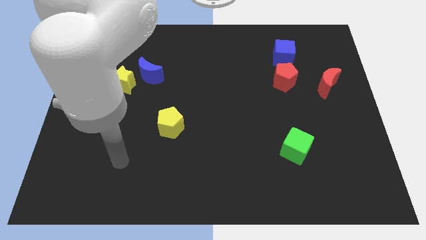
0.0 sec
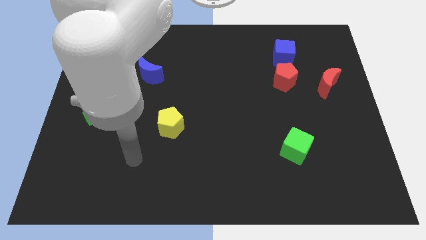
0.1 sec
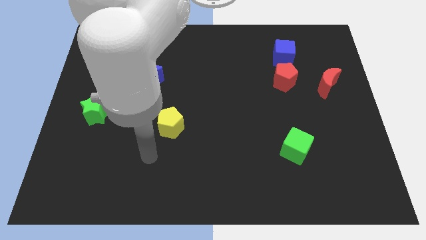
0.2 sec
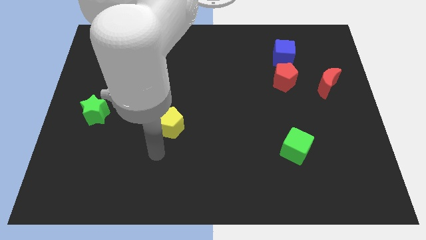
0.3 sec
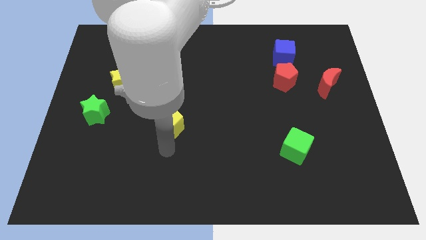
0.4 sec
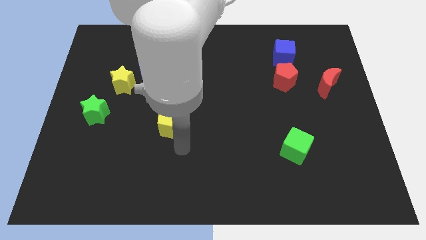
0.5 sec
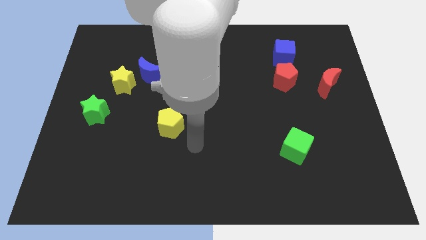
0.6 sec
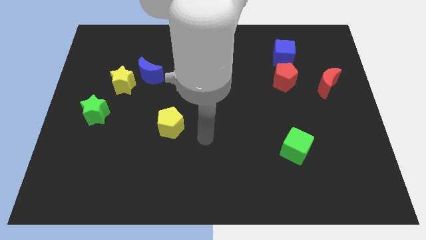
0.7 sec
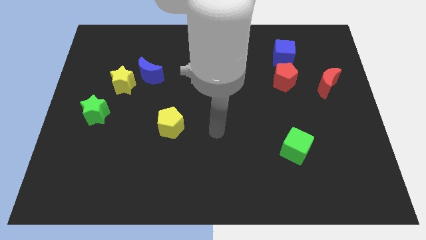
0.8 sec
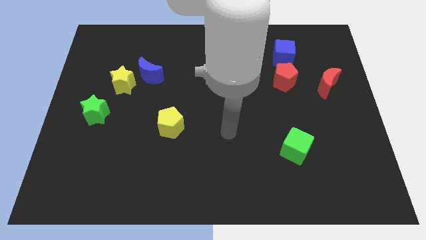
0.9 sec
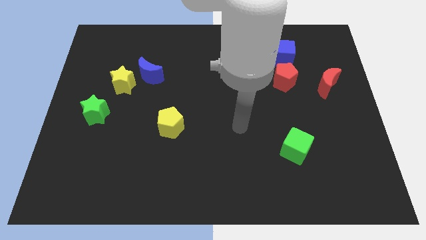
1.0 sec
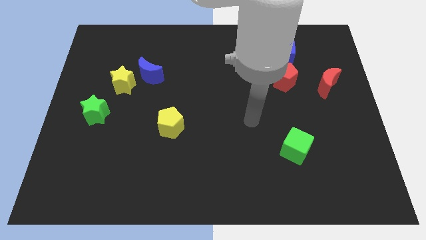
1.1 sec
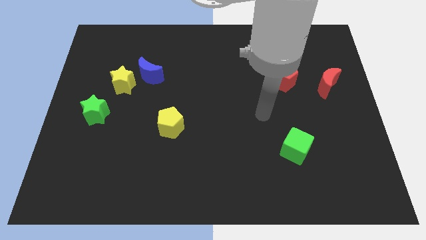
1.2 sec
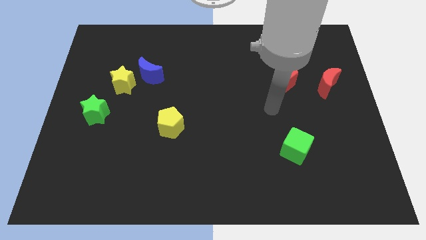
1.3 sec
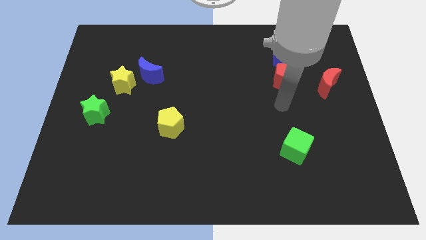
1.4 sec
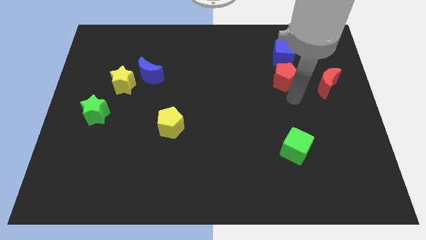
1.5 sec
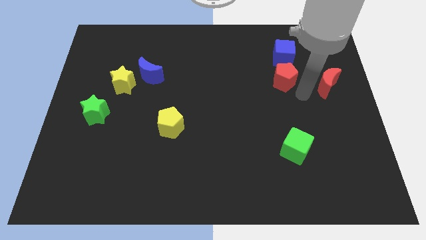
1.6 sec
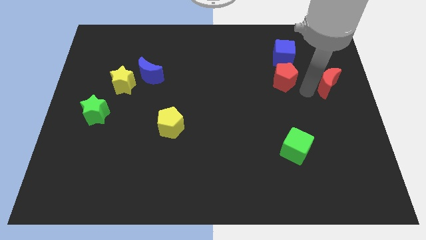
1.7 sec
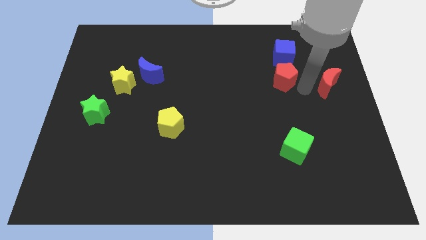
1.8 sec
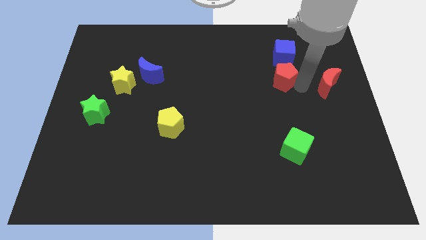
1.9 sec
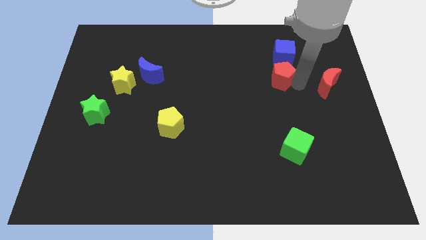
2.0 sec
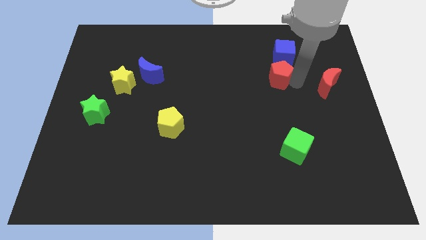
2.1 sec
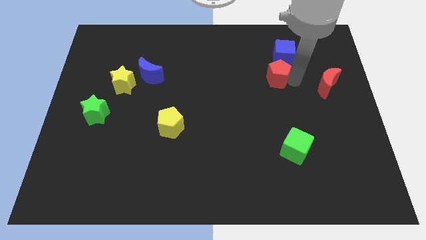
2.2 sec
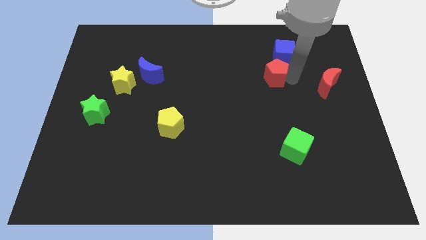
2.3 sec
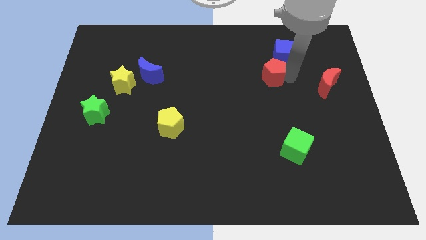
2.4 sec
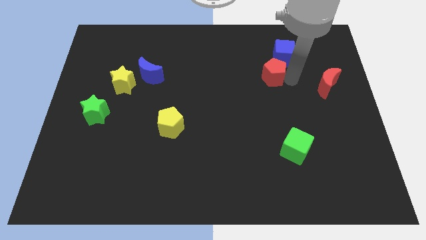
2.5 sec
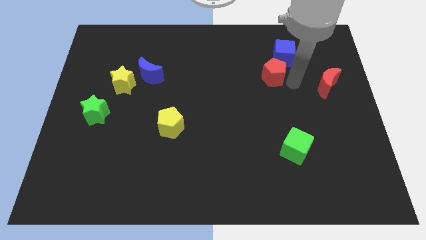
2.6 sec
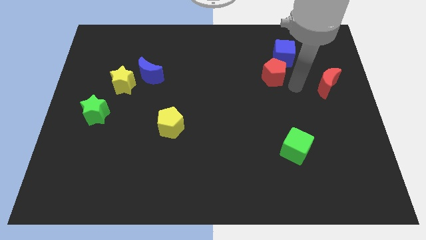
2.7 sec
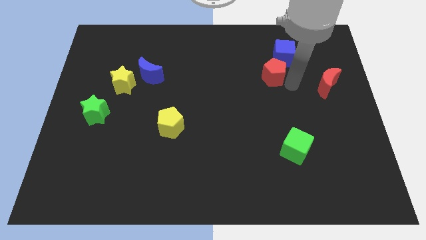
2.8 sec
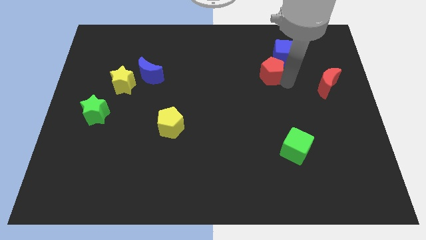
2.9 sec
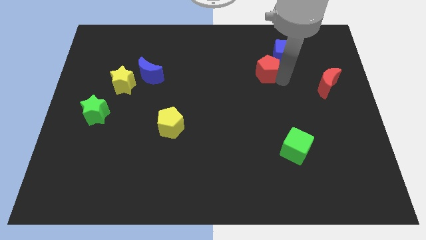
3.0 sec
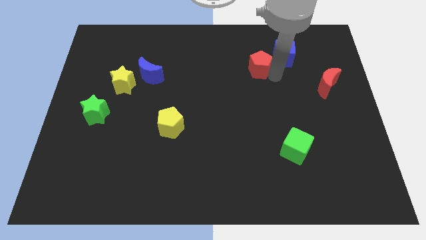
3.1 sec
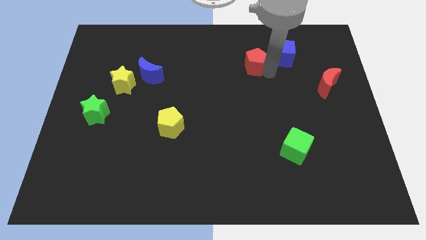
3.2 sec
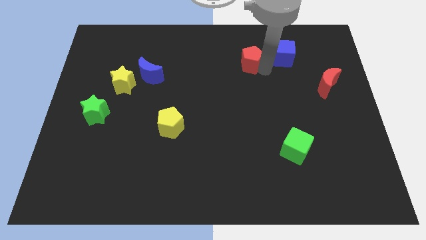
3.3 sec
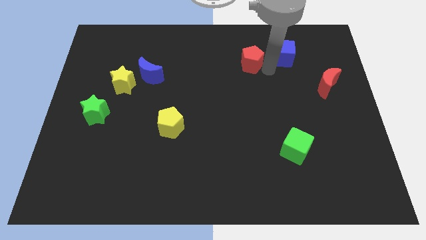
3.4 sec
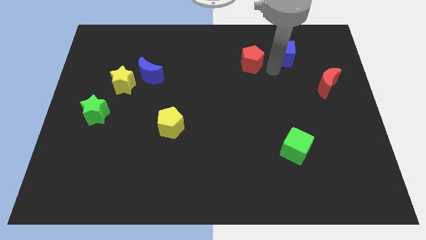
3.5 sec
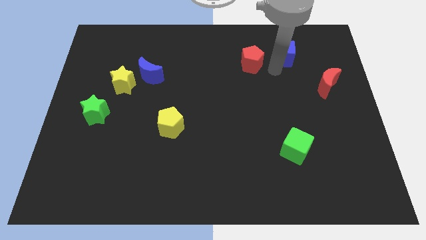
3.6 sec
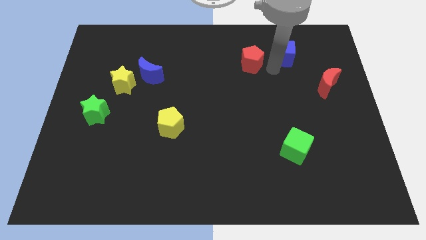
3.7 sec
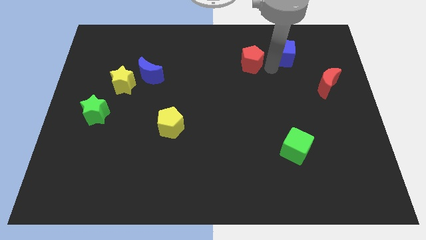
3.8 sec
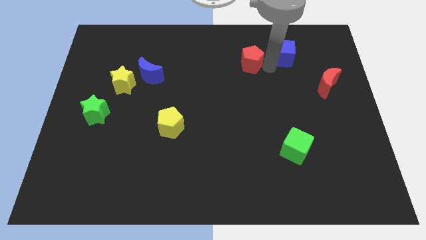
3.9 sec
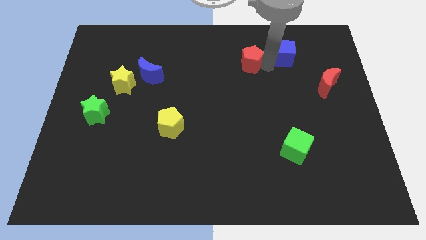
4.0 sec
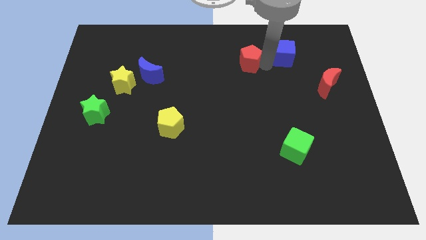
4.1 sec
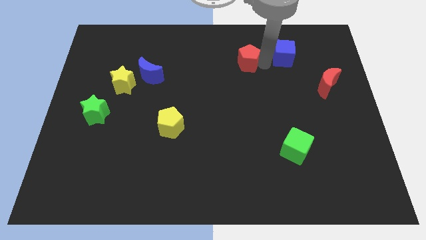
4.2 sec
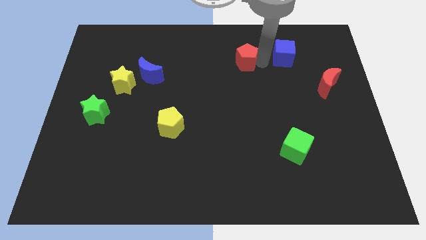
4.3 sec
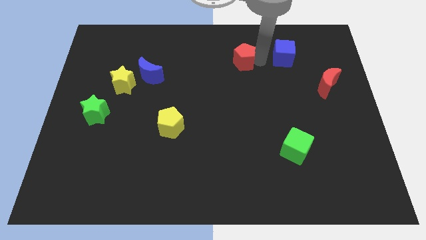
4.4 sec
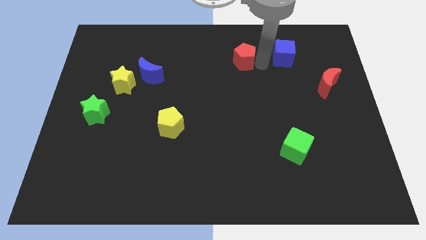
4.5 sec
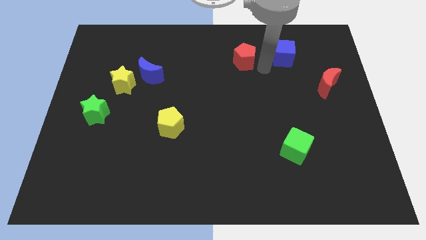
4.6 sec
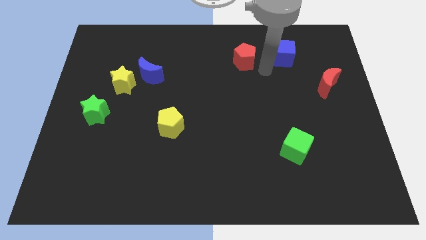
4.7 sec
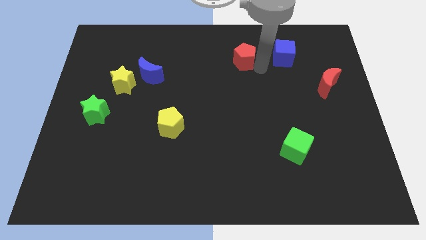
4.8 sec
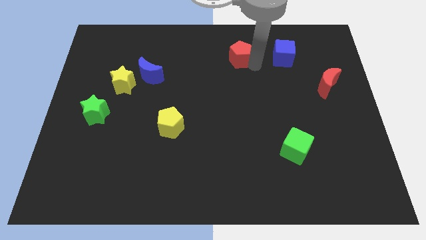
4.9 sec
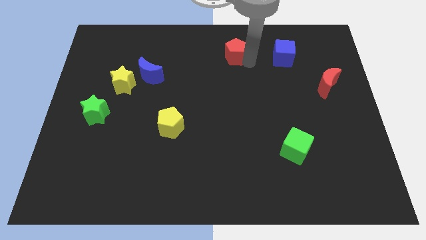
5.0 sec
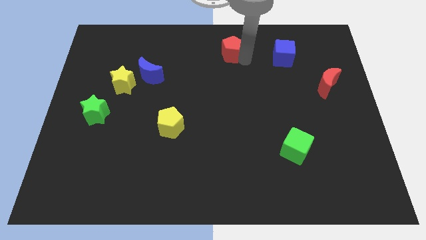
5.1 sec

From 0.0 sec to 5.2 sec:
slide the red pentagon to the top side

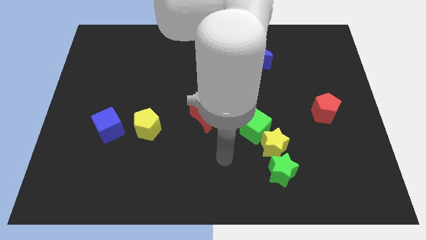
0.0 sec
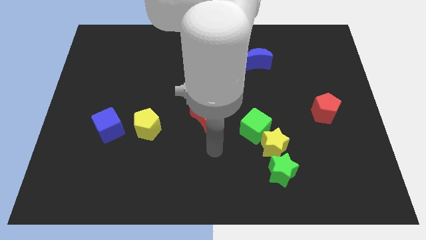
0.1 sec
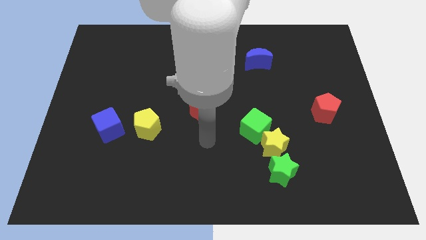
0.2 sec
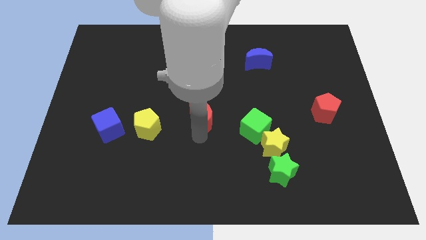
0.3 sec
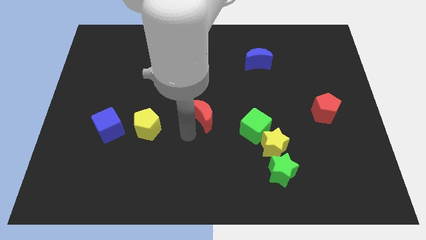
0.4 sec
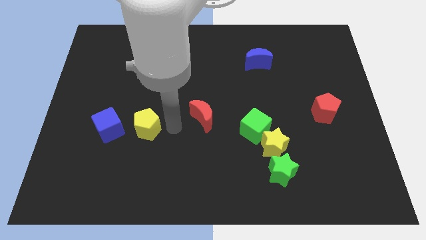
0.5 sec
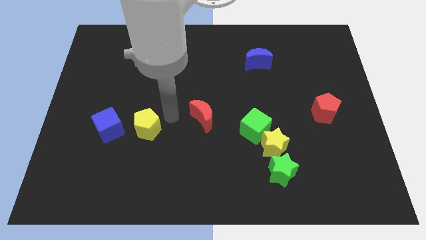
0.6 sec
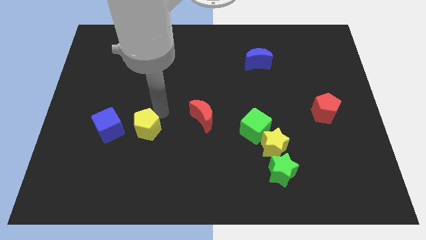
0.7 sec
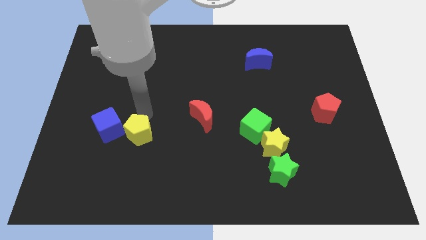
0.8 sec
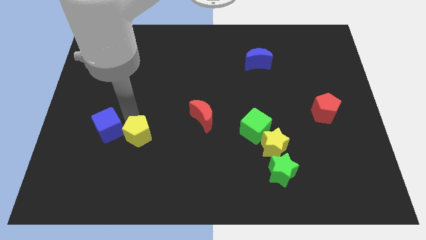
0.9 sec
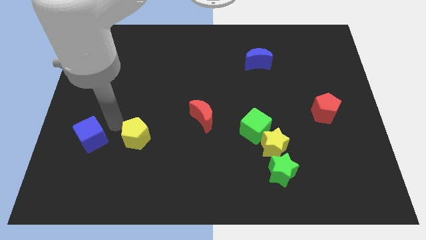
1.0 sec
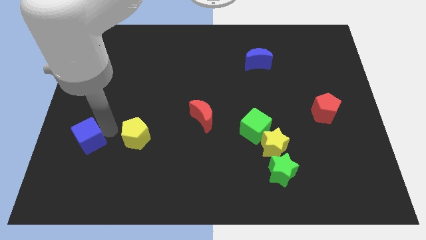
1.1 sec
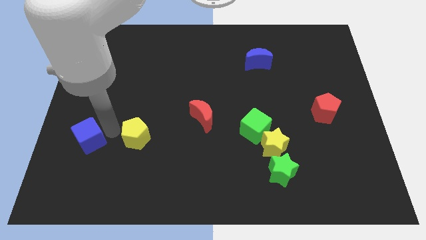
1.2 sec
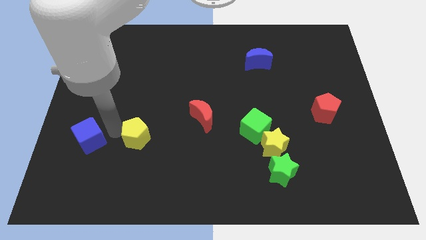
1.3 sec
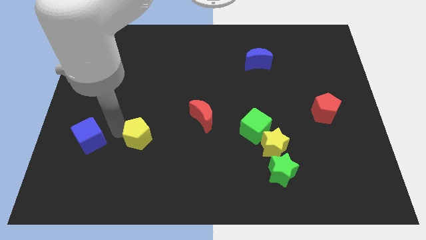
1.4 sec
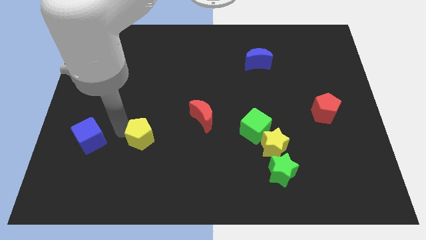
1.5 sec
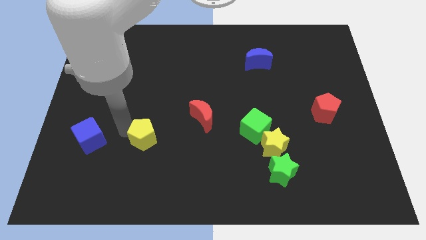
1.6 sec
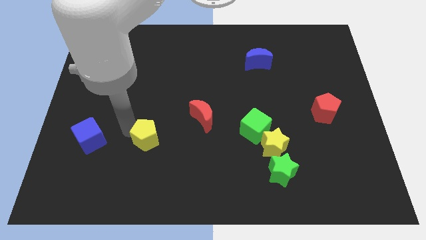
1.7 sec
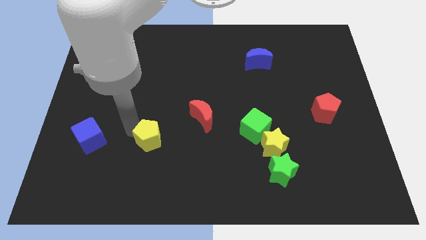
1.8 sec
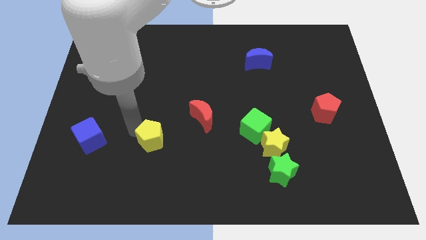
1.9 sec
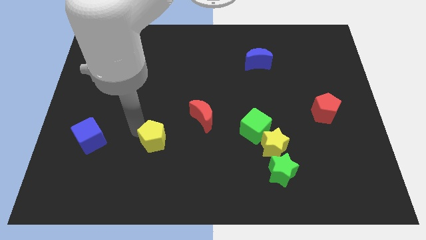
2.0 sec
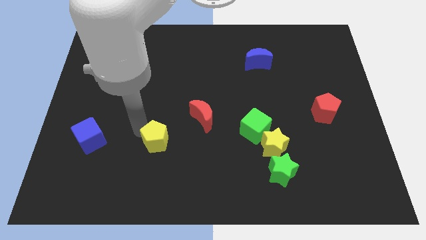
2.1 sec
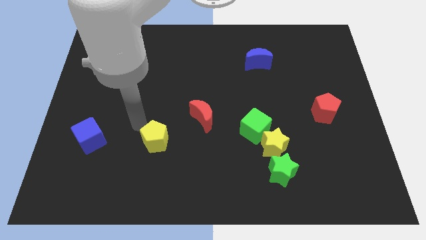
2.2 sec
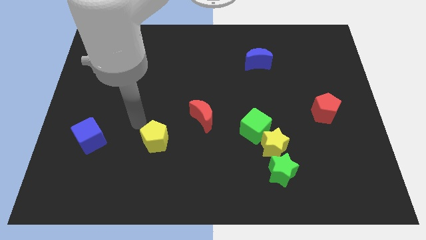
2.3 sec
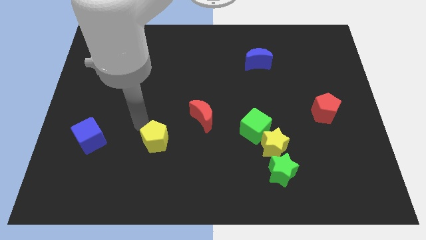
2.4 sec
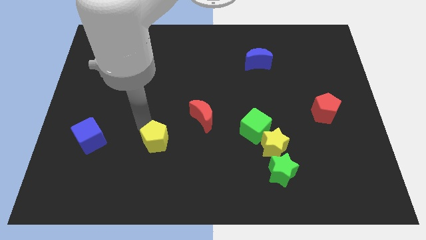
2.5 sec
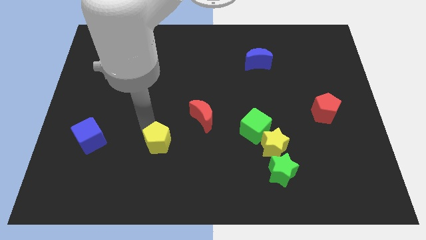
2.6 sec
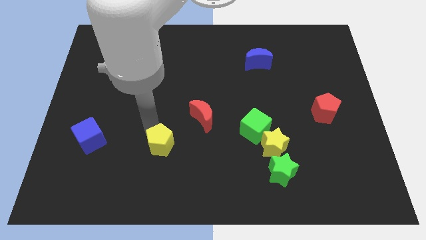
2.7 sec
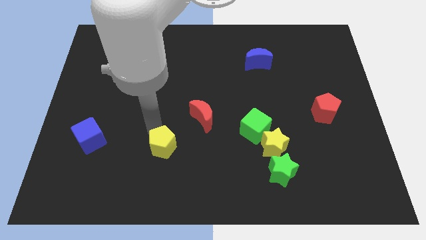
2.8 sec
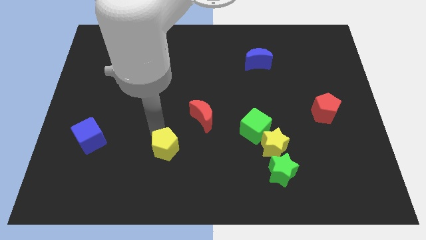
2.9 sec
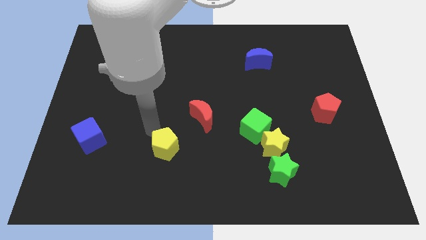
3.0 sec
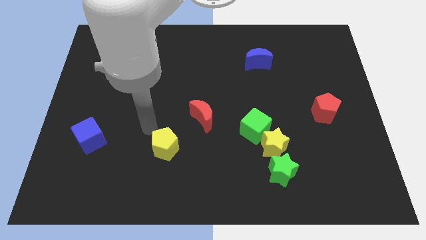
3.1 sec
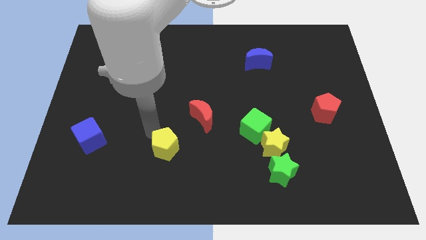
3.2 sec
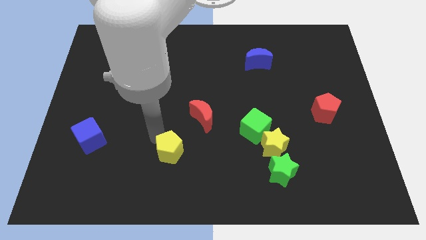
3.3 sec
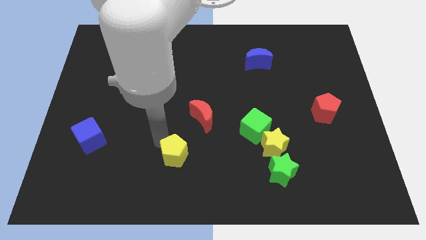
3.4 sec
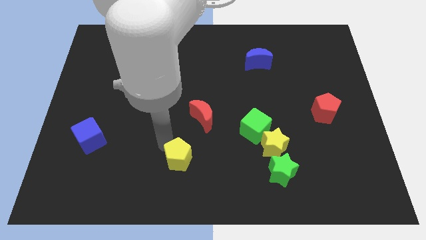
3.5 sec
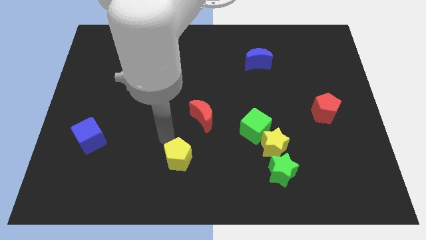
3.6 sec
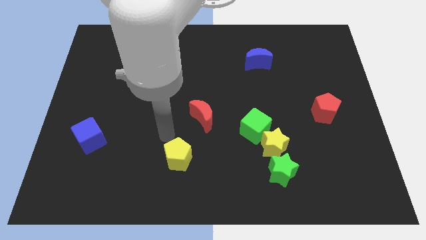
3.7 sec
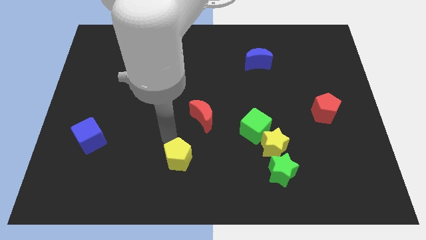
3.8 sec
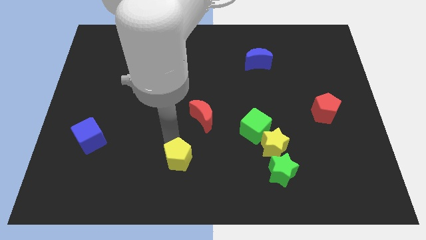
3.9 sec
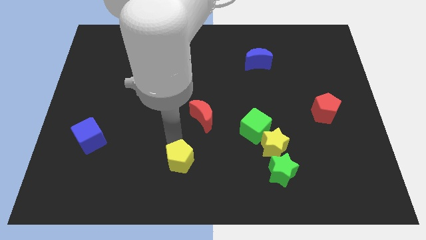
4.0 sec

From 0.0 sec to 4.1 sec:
put the yellow pentagon to the bottom side
